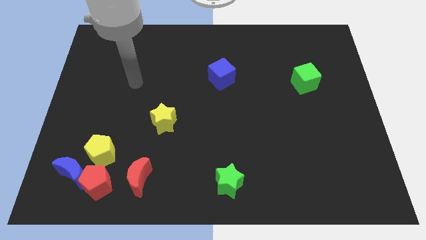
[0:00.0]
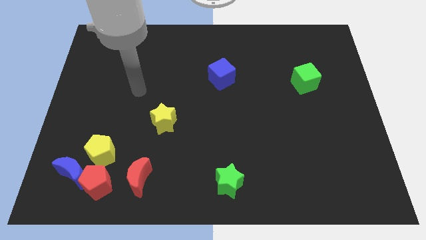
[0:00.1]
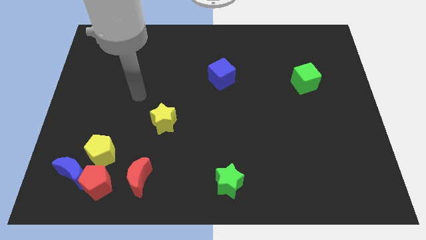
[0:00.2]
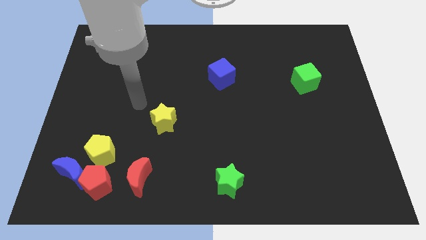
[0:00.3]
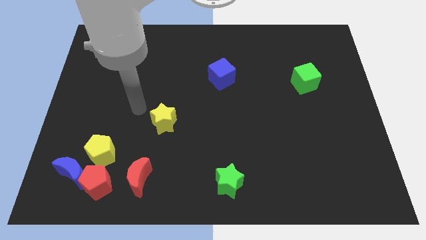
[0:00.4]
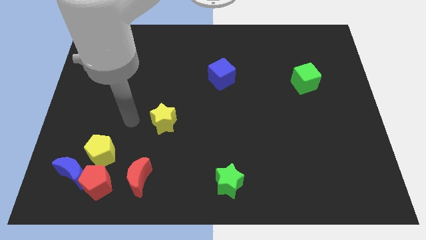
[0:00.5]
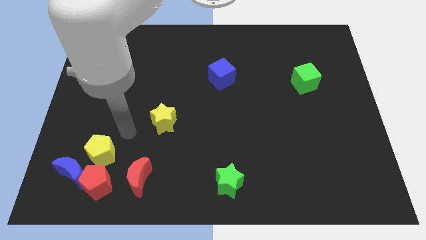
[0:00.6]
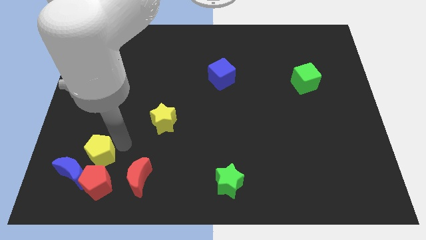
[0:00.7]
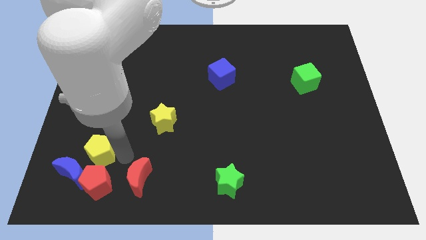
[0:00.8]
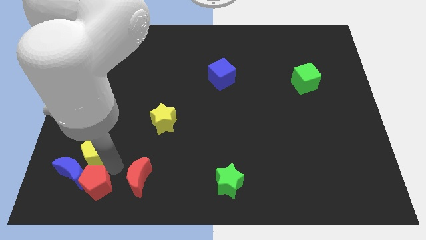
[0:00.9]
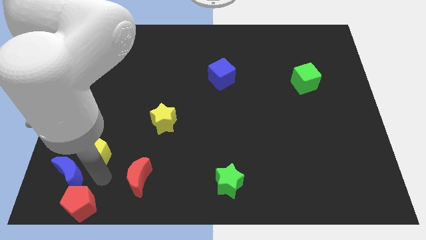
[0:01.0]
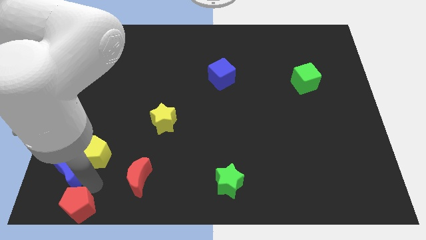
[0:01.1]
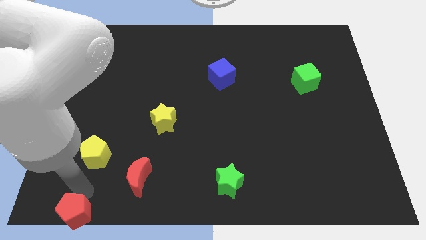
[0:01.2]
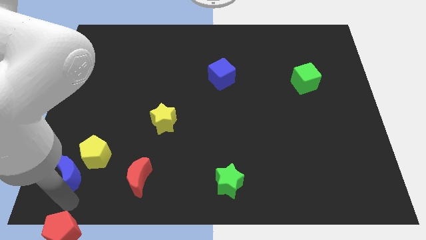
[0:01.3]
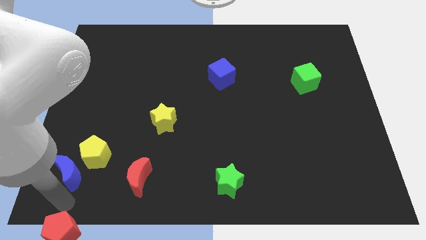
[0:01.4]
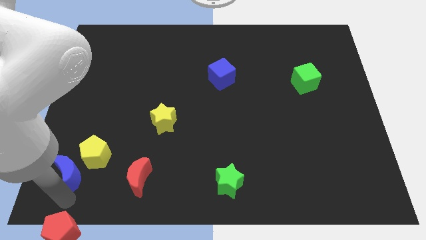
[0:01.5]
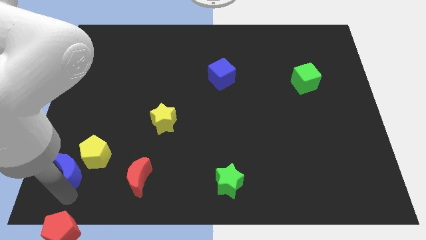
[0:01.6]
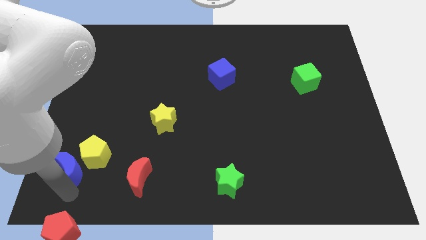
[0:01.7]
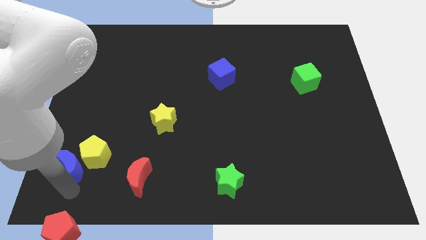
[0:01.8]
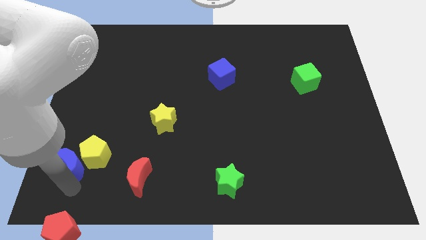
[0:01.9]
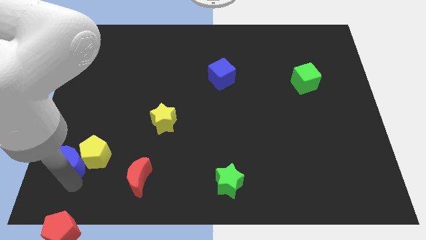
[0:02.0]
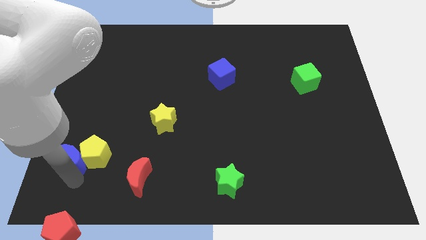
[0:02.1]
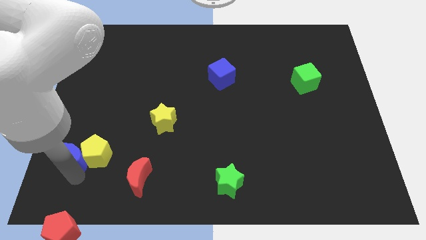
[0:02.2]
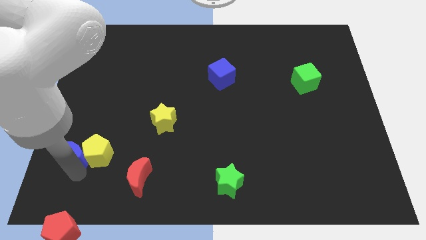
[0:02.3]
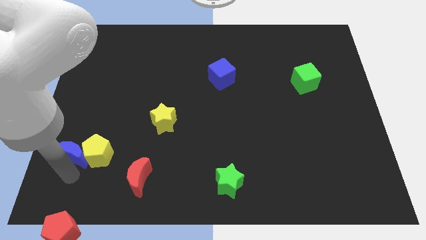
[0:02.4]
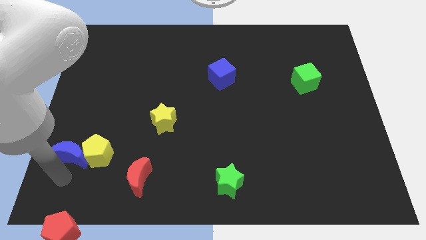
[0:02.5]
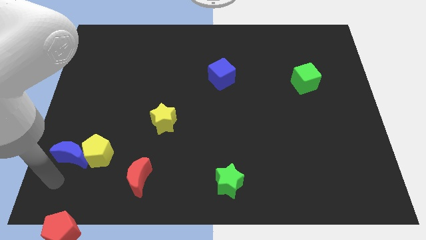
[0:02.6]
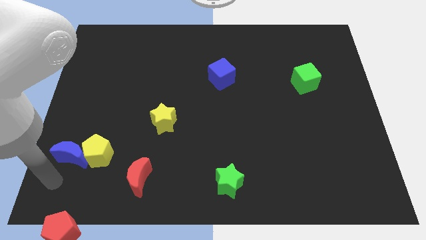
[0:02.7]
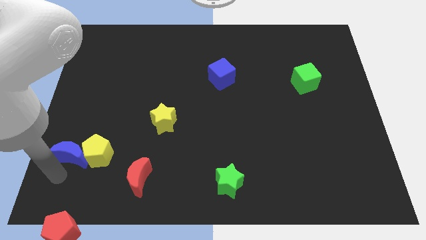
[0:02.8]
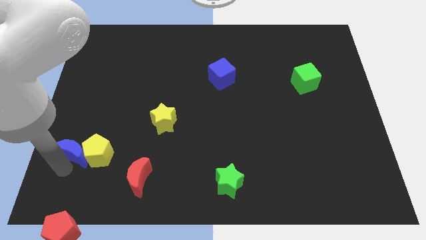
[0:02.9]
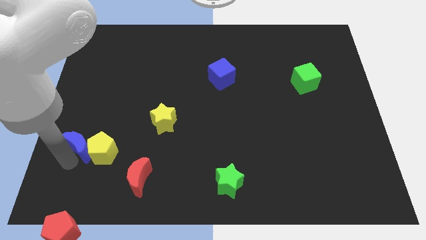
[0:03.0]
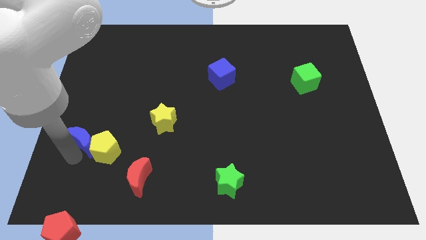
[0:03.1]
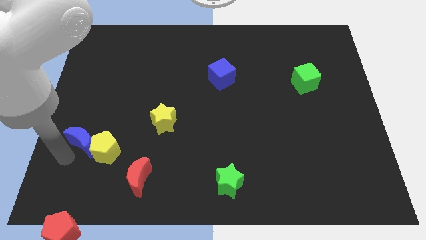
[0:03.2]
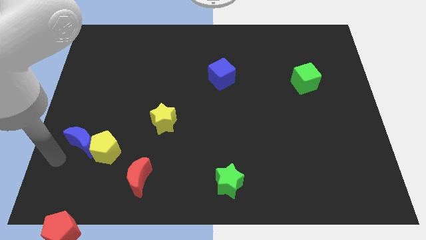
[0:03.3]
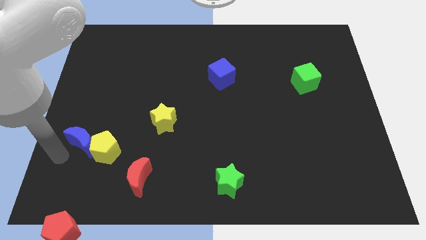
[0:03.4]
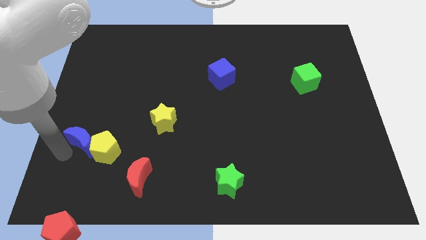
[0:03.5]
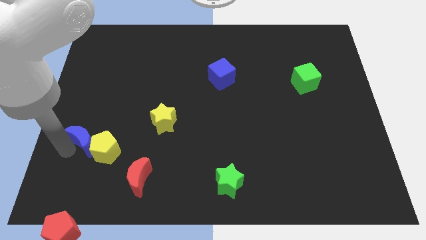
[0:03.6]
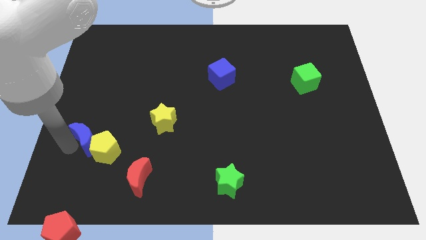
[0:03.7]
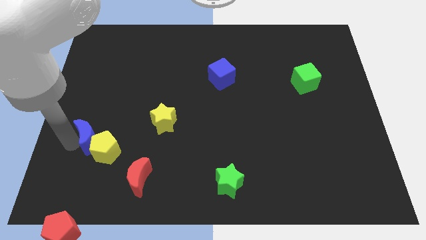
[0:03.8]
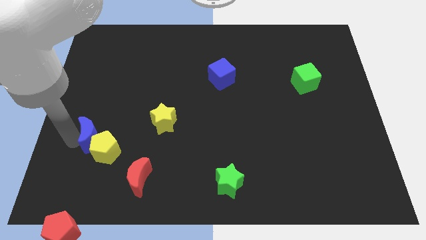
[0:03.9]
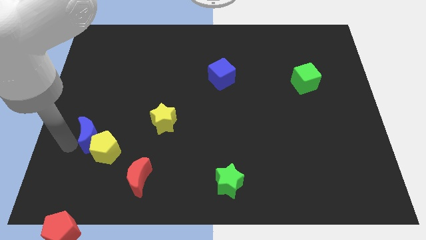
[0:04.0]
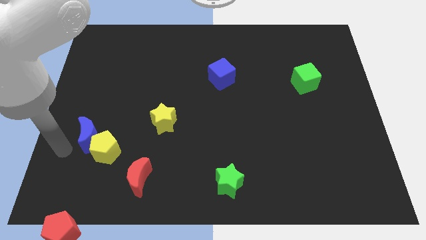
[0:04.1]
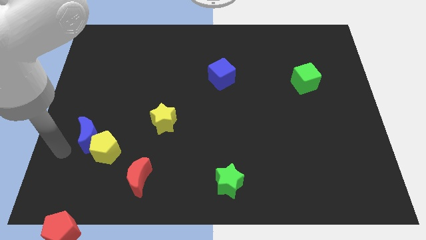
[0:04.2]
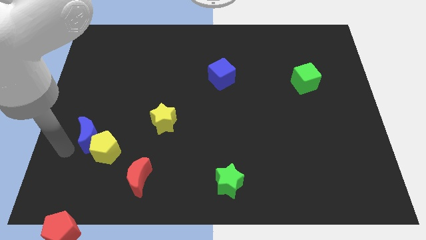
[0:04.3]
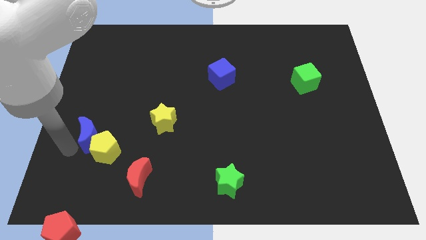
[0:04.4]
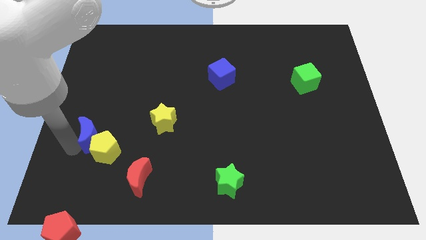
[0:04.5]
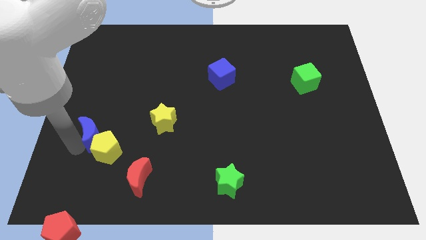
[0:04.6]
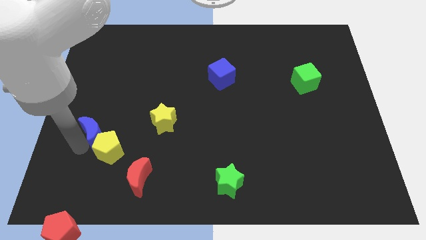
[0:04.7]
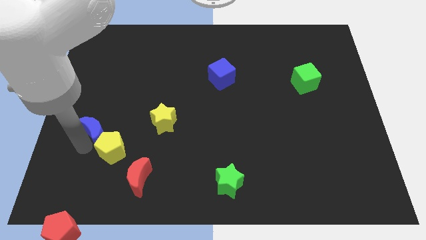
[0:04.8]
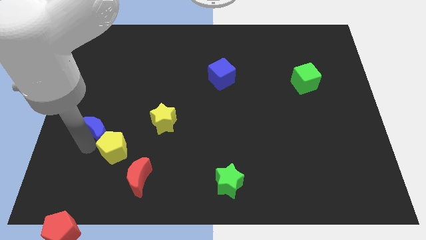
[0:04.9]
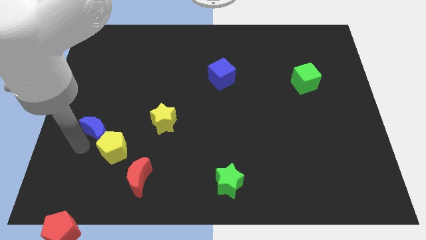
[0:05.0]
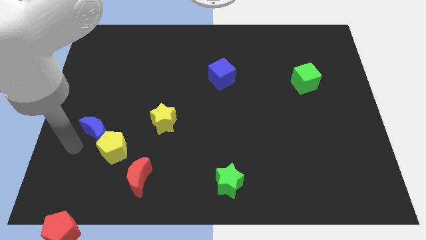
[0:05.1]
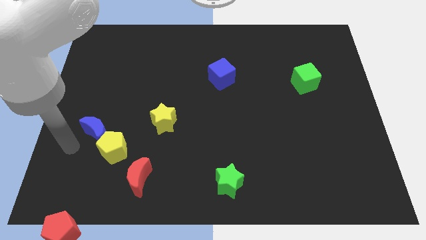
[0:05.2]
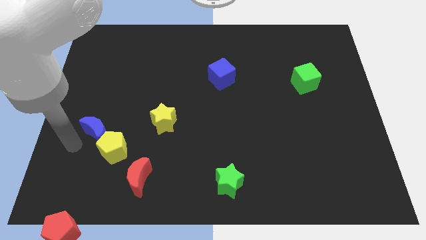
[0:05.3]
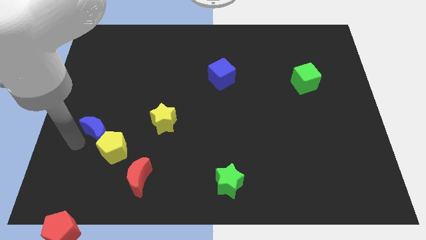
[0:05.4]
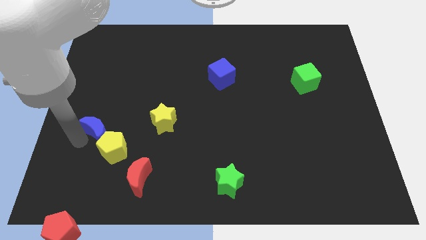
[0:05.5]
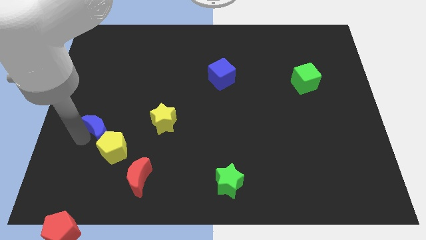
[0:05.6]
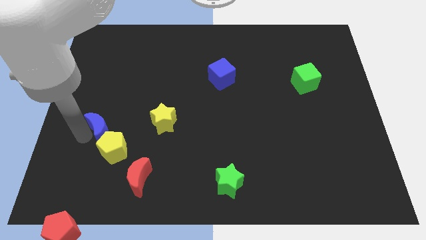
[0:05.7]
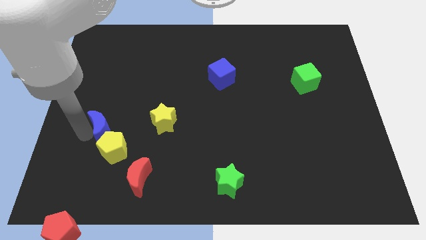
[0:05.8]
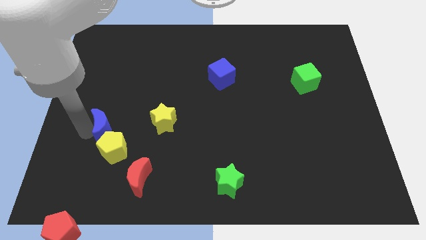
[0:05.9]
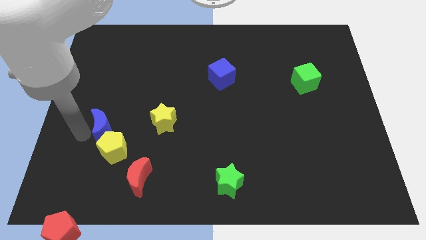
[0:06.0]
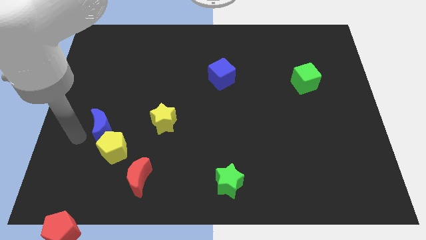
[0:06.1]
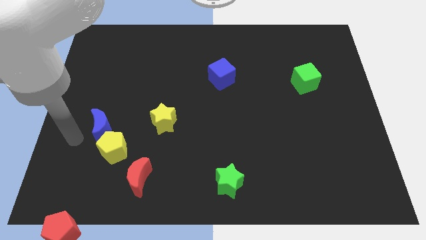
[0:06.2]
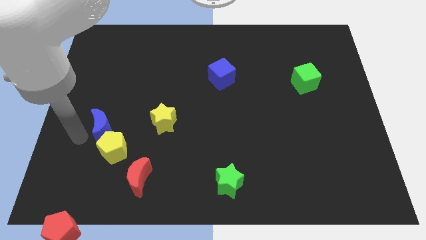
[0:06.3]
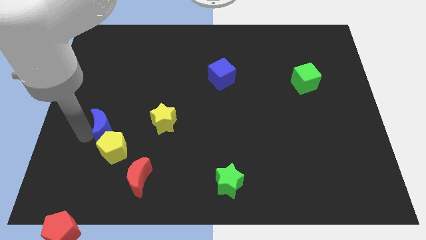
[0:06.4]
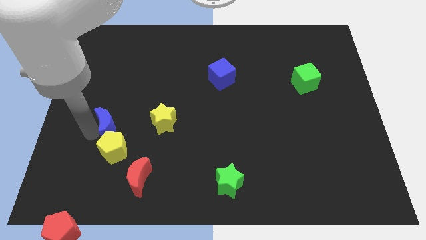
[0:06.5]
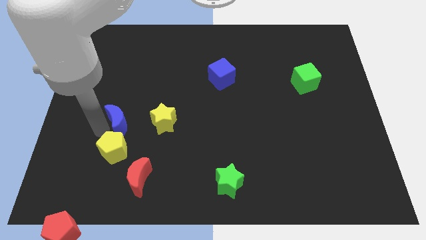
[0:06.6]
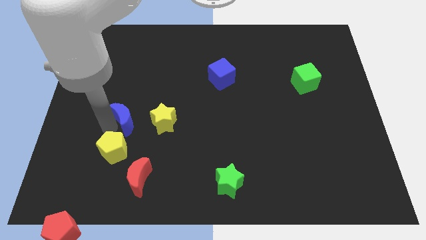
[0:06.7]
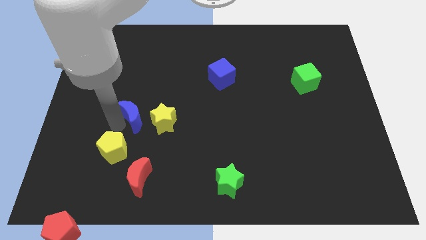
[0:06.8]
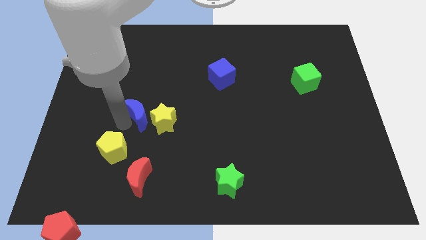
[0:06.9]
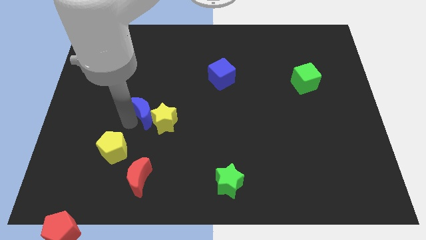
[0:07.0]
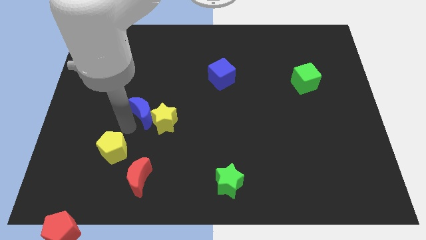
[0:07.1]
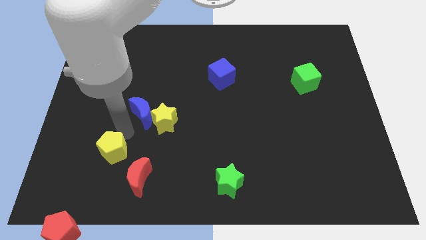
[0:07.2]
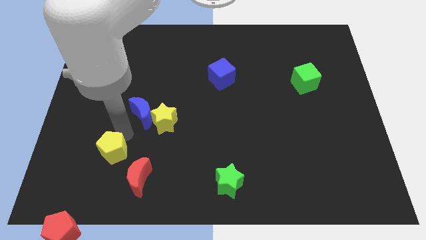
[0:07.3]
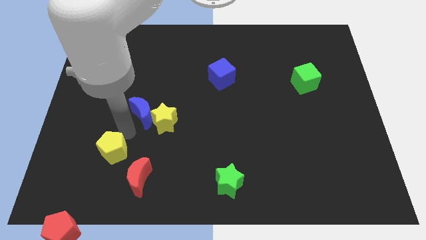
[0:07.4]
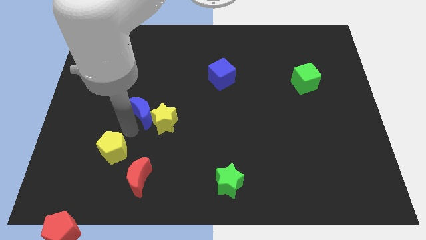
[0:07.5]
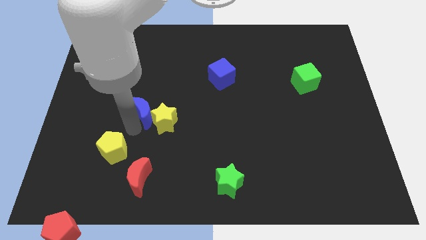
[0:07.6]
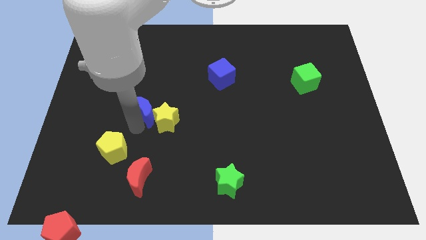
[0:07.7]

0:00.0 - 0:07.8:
slide the blue moon diagonally upwards and to the right
